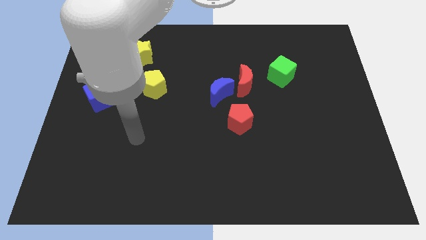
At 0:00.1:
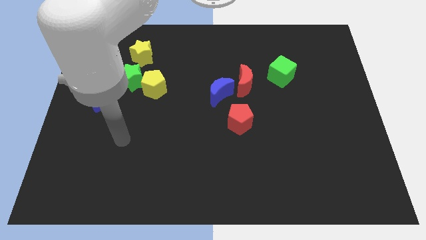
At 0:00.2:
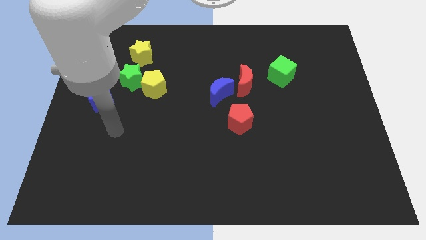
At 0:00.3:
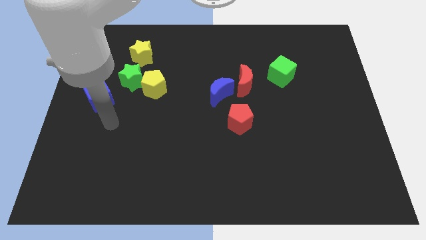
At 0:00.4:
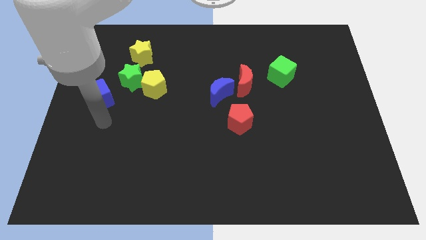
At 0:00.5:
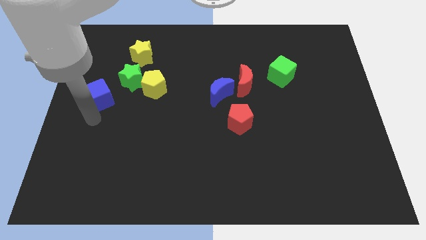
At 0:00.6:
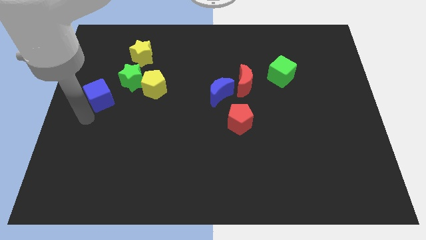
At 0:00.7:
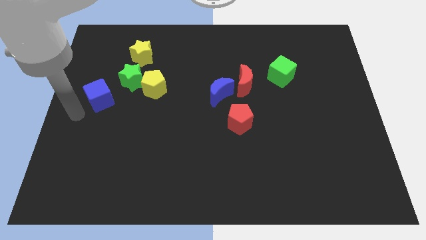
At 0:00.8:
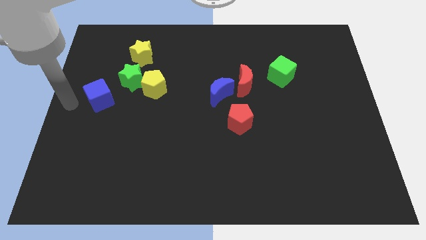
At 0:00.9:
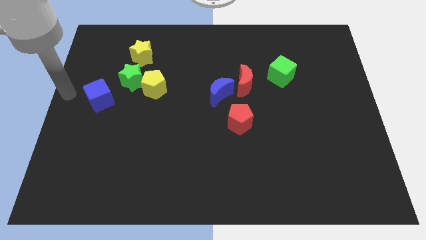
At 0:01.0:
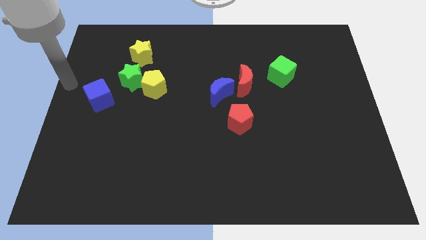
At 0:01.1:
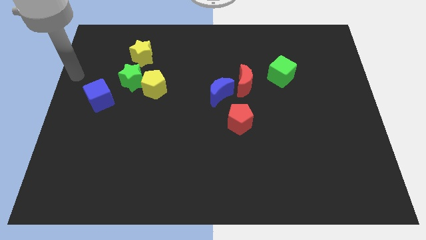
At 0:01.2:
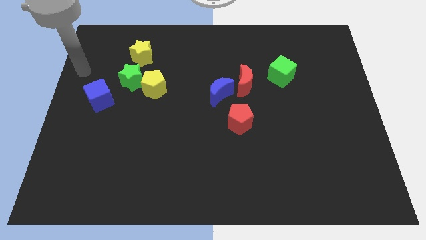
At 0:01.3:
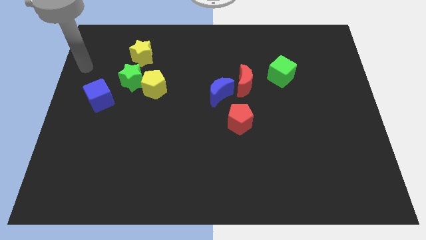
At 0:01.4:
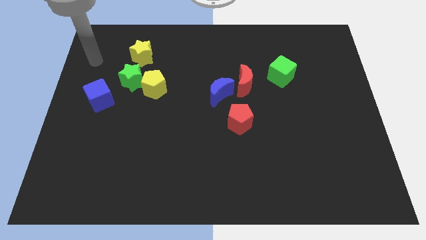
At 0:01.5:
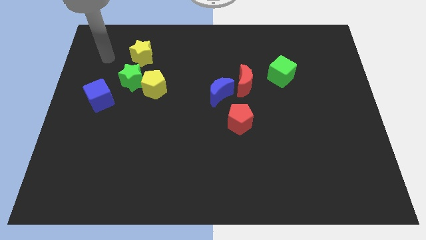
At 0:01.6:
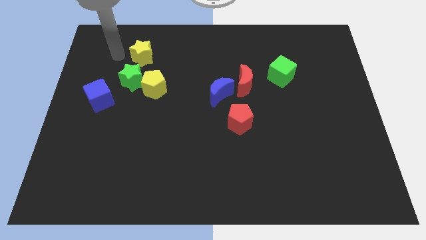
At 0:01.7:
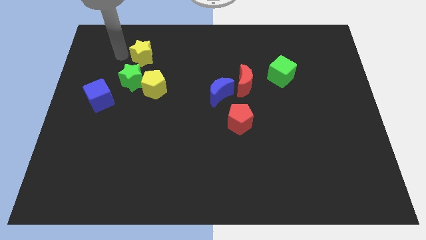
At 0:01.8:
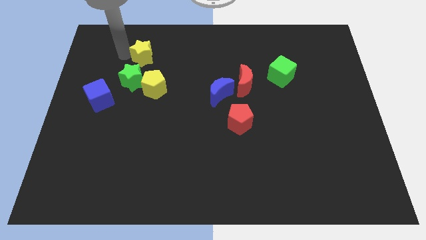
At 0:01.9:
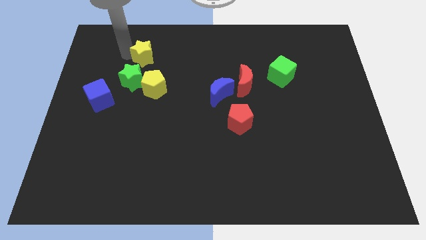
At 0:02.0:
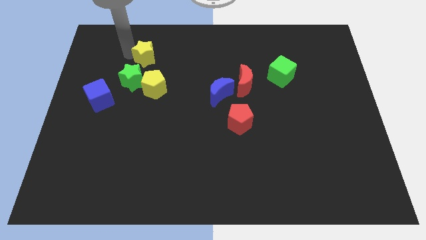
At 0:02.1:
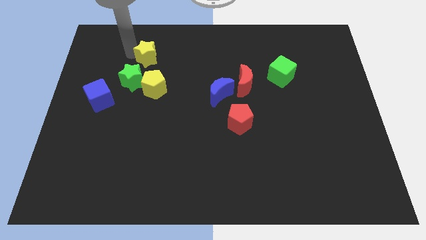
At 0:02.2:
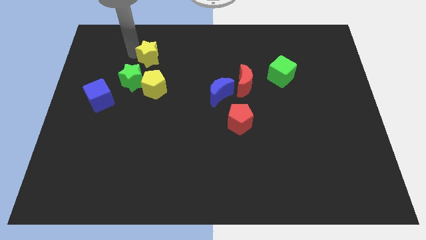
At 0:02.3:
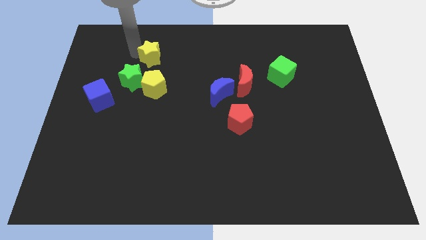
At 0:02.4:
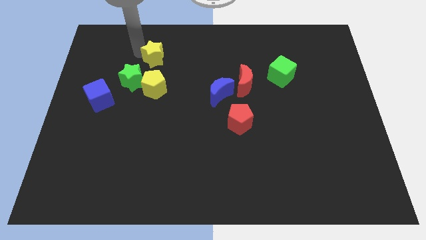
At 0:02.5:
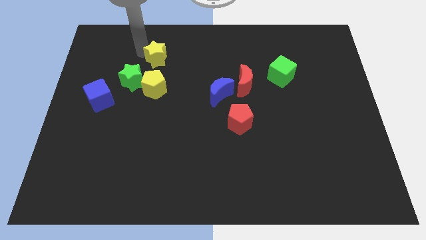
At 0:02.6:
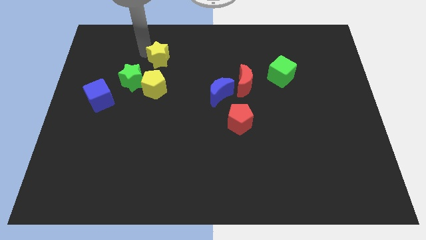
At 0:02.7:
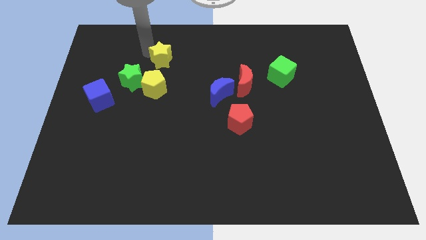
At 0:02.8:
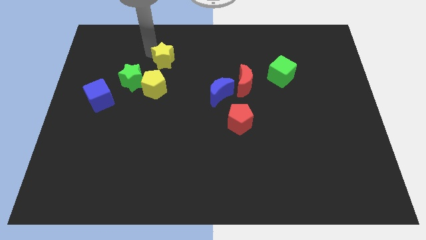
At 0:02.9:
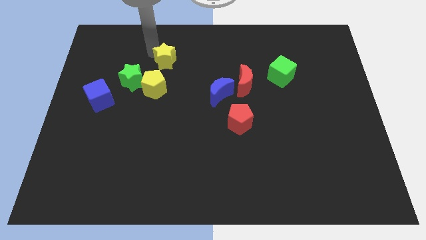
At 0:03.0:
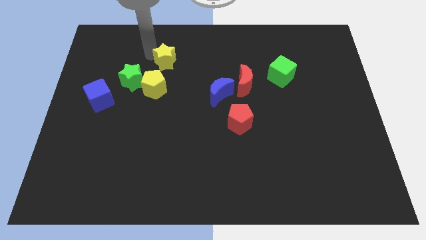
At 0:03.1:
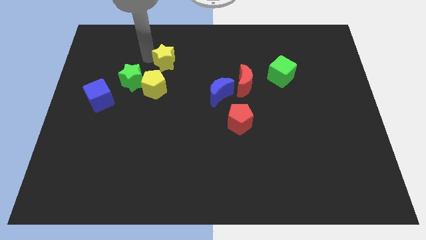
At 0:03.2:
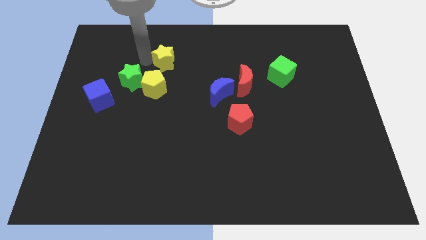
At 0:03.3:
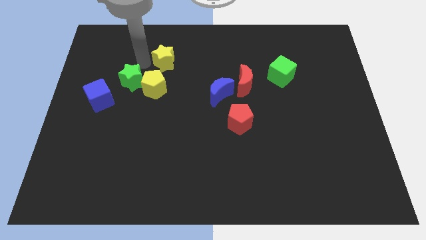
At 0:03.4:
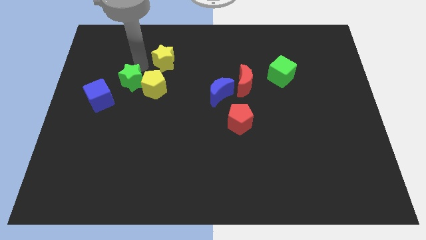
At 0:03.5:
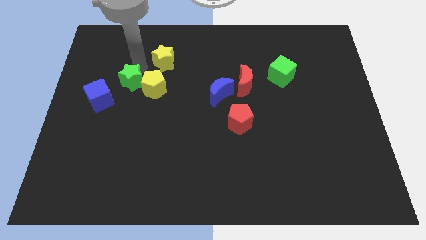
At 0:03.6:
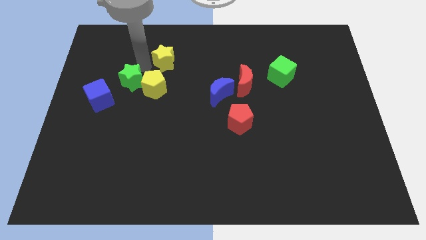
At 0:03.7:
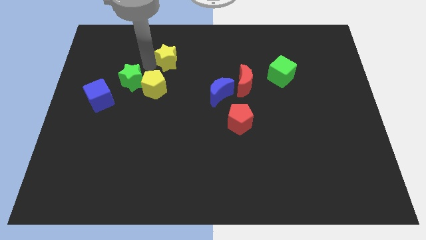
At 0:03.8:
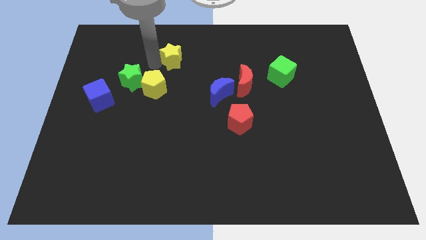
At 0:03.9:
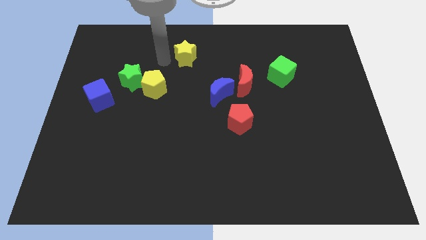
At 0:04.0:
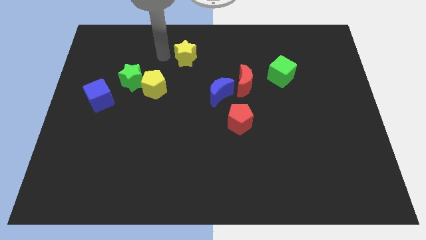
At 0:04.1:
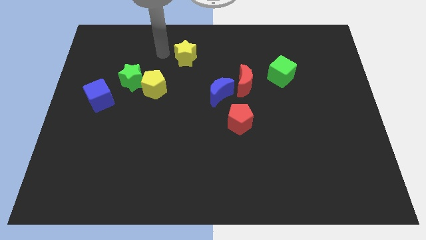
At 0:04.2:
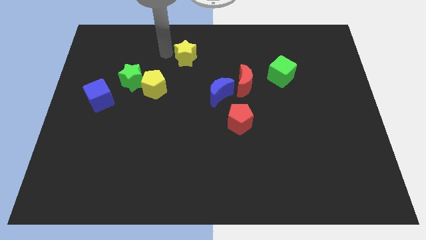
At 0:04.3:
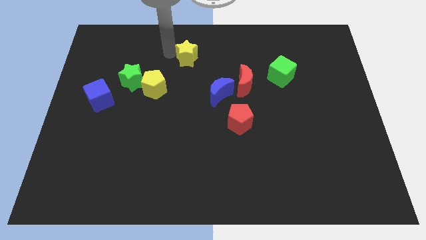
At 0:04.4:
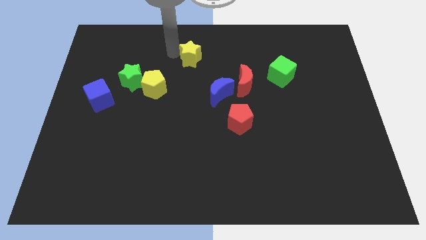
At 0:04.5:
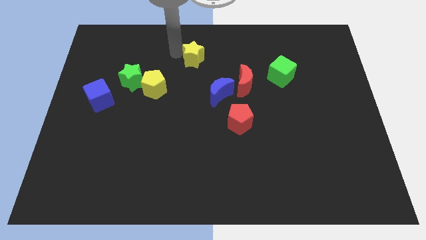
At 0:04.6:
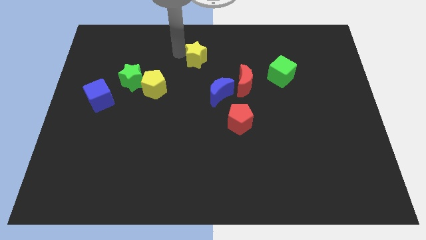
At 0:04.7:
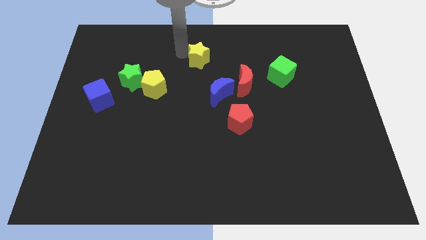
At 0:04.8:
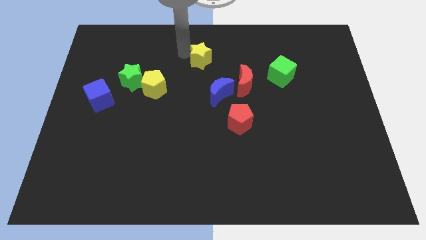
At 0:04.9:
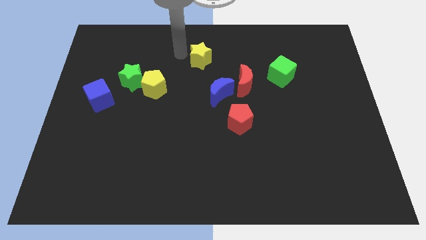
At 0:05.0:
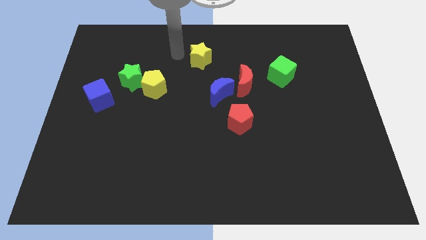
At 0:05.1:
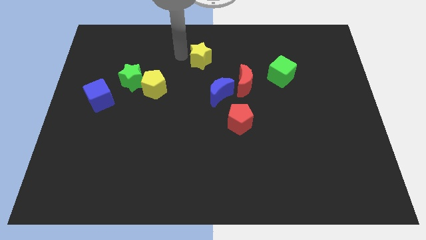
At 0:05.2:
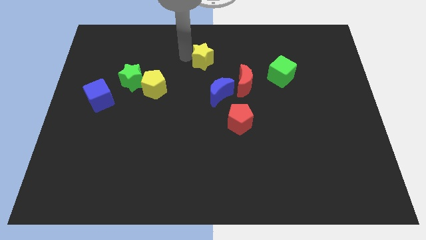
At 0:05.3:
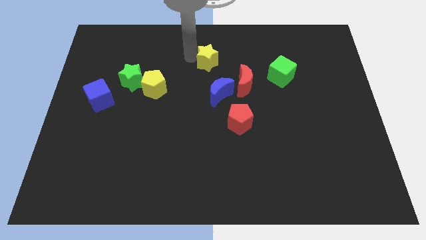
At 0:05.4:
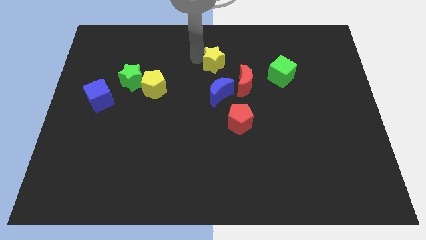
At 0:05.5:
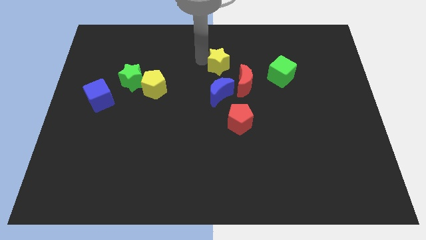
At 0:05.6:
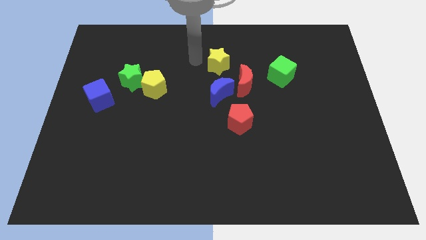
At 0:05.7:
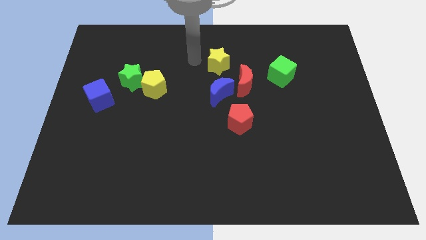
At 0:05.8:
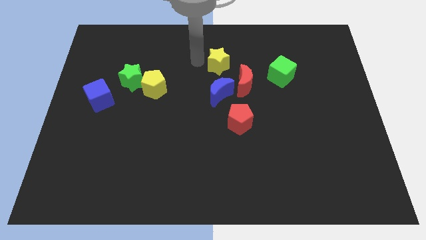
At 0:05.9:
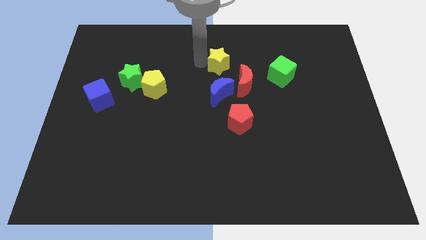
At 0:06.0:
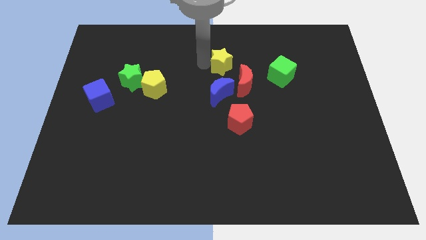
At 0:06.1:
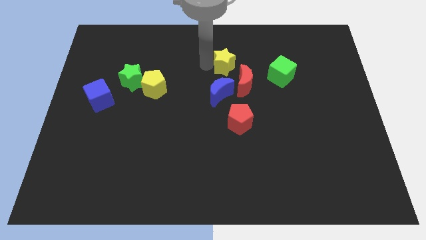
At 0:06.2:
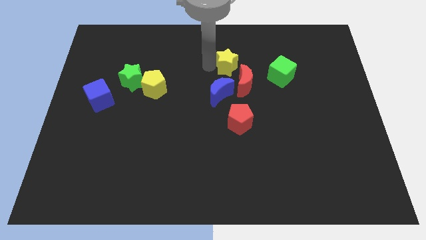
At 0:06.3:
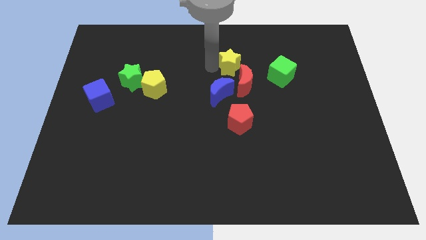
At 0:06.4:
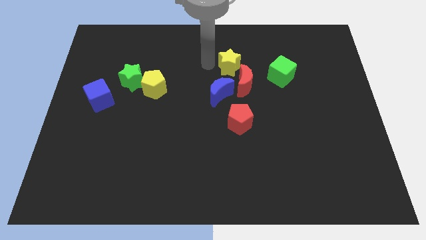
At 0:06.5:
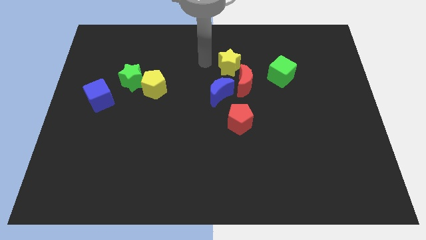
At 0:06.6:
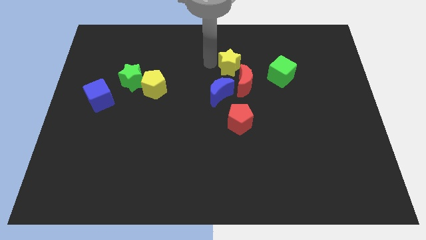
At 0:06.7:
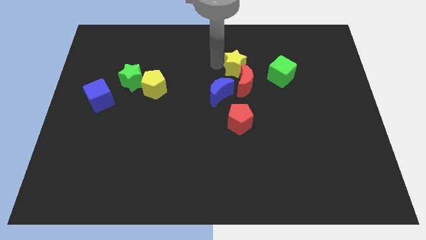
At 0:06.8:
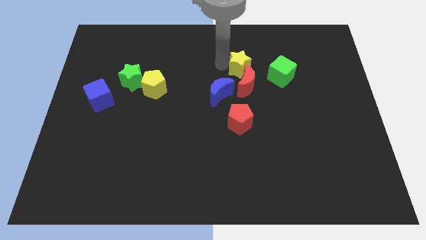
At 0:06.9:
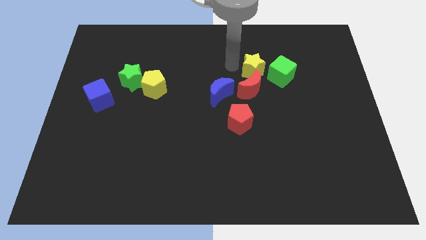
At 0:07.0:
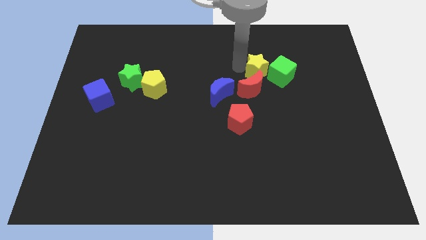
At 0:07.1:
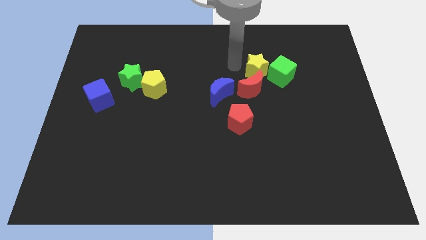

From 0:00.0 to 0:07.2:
slide the yellow star close to the green cube
